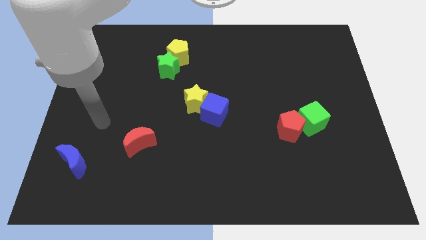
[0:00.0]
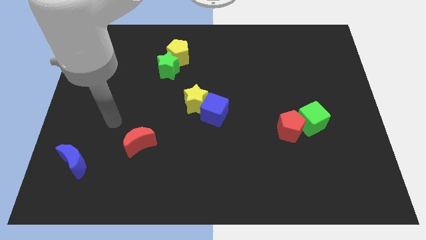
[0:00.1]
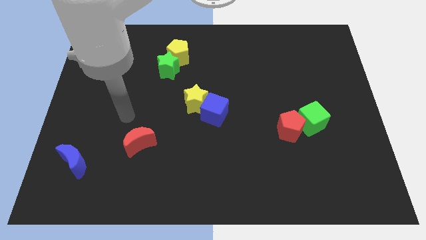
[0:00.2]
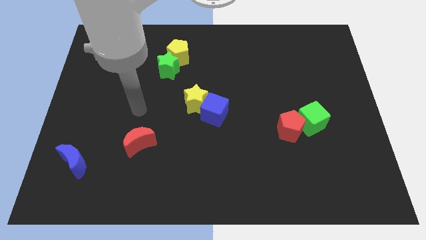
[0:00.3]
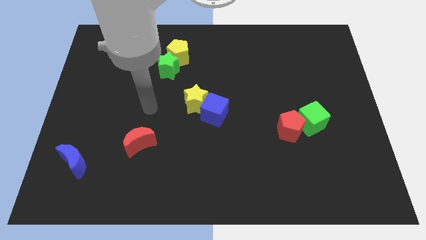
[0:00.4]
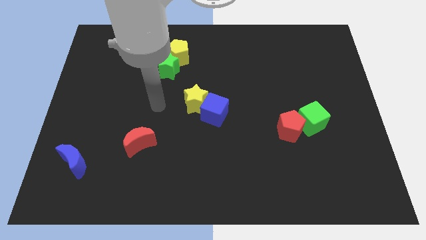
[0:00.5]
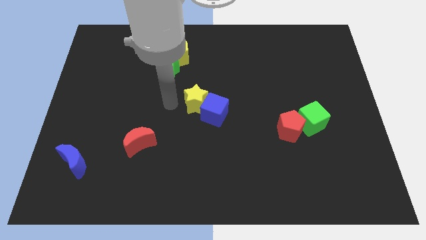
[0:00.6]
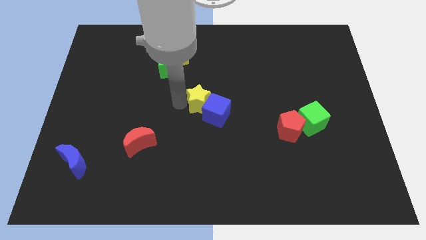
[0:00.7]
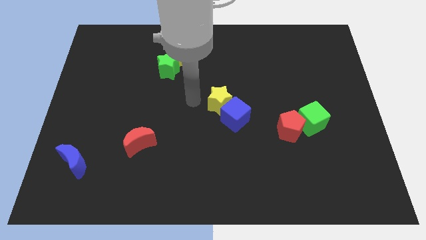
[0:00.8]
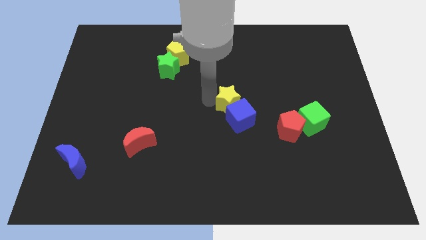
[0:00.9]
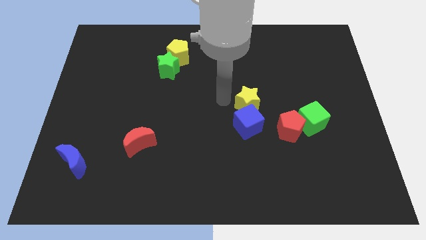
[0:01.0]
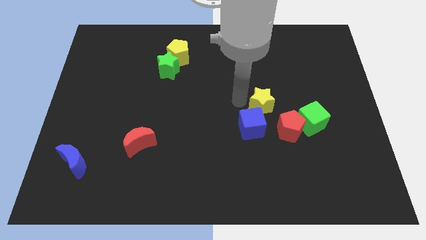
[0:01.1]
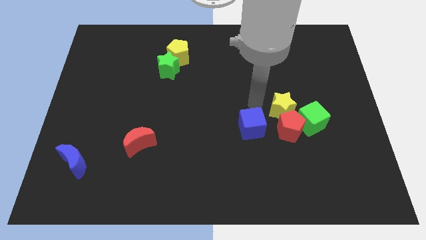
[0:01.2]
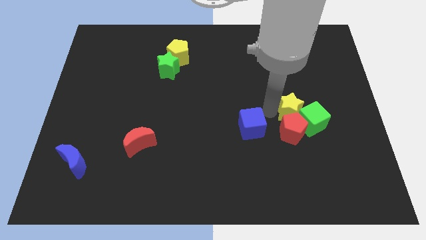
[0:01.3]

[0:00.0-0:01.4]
pull the blue cube apart from the yellow star

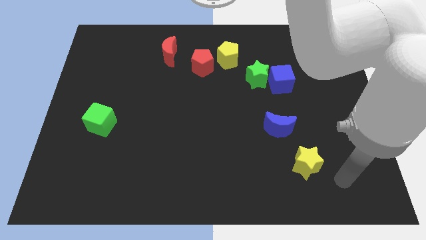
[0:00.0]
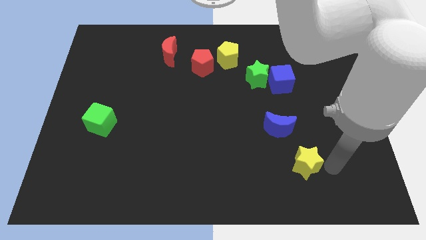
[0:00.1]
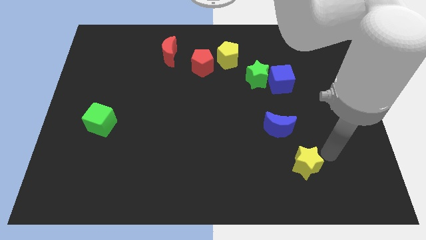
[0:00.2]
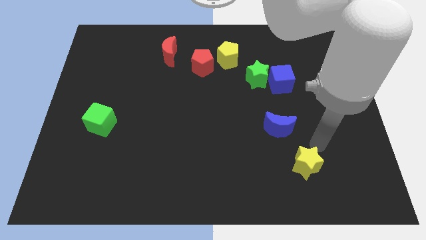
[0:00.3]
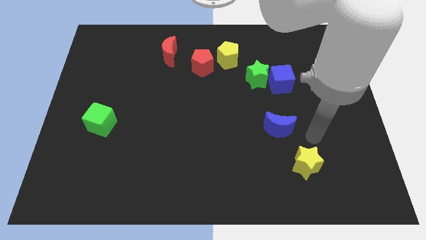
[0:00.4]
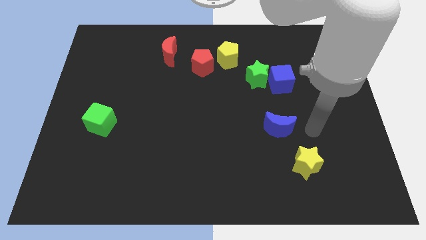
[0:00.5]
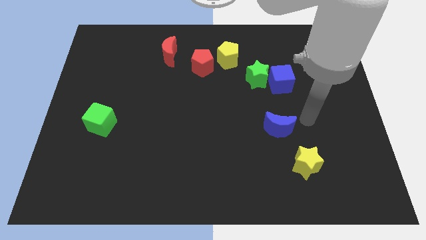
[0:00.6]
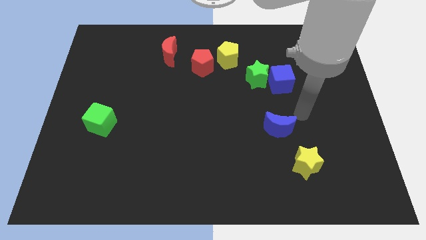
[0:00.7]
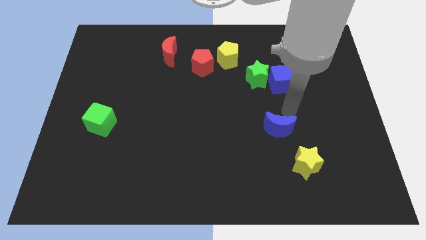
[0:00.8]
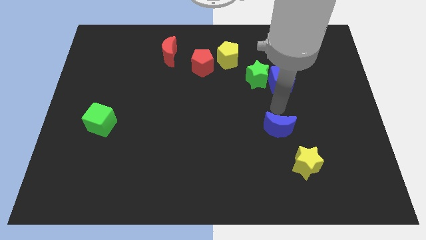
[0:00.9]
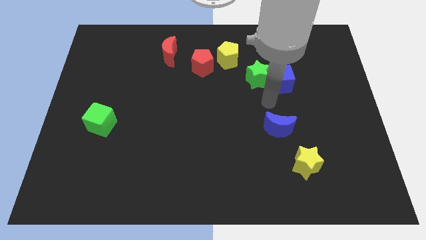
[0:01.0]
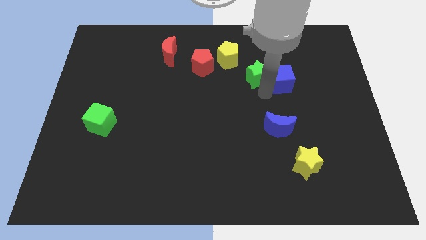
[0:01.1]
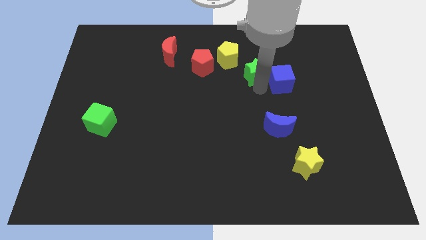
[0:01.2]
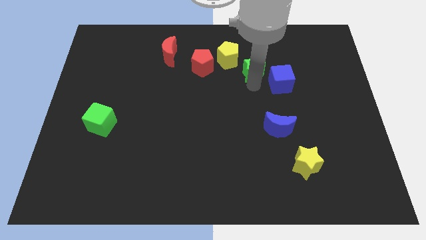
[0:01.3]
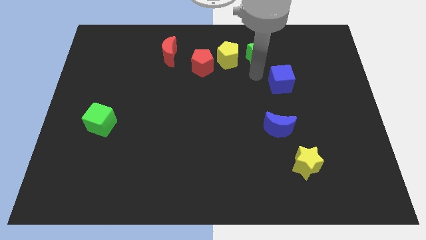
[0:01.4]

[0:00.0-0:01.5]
pull the blue cube apart from the green star

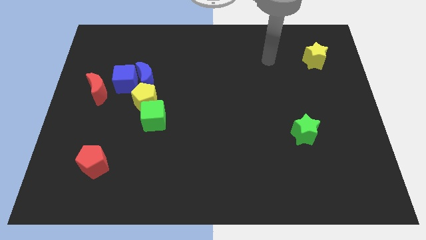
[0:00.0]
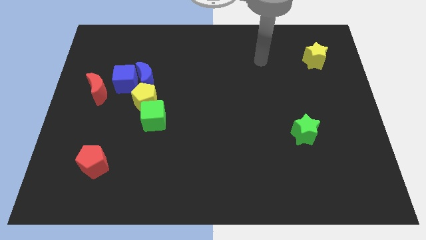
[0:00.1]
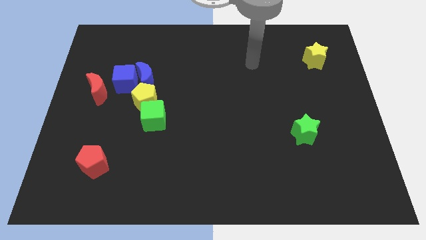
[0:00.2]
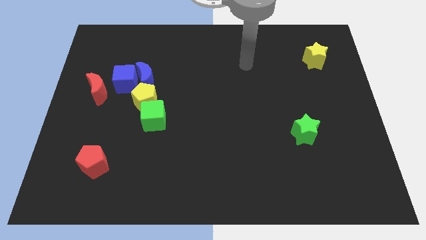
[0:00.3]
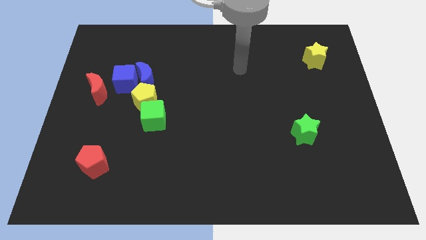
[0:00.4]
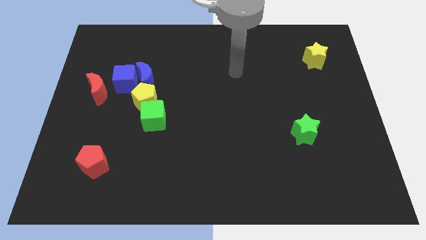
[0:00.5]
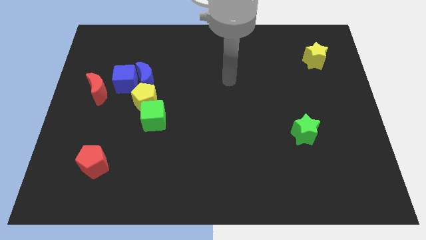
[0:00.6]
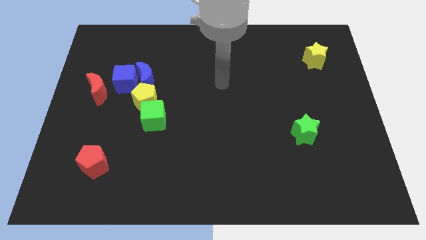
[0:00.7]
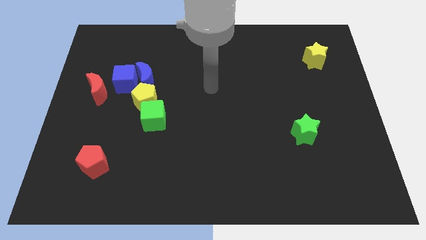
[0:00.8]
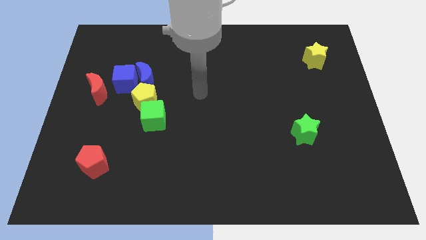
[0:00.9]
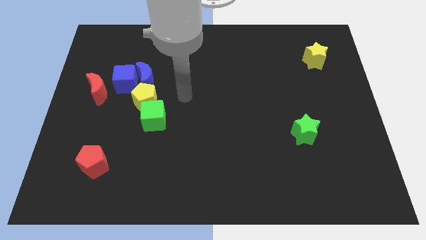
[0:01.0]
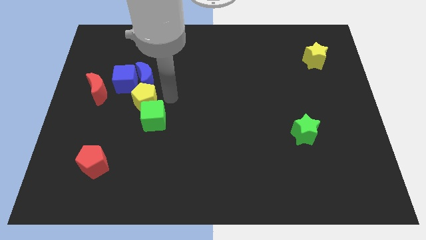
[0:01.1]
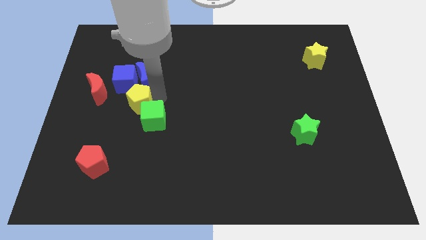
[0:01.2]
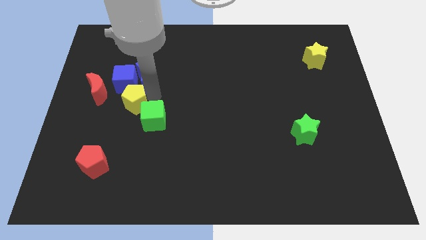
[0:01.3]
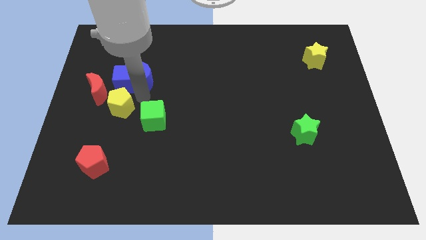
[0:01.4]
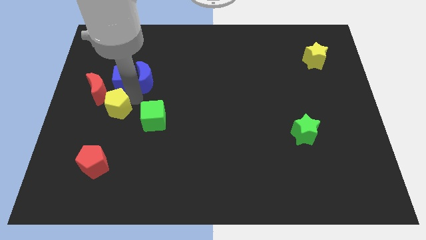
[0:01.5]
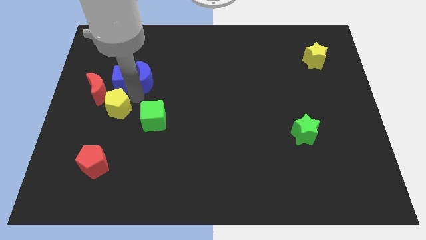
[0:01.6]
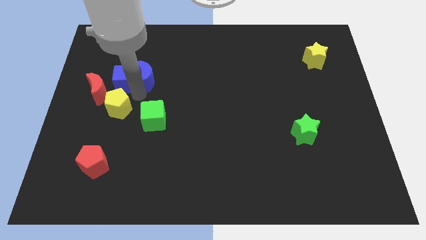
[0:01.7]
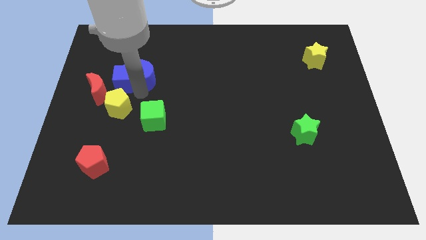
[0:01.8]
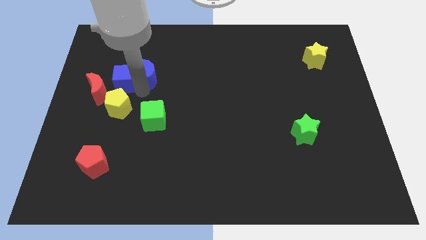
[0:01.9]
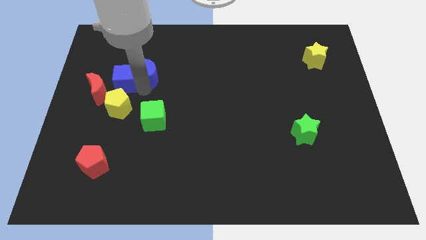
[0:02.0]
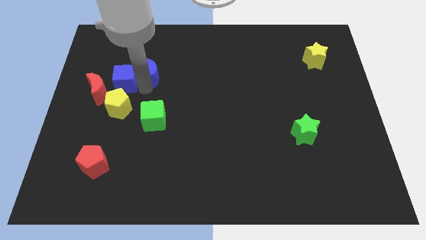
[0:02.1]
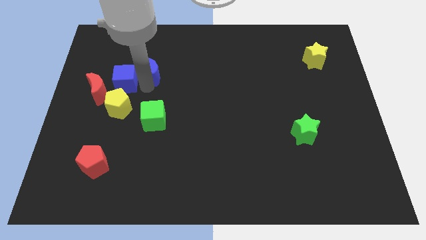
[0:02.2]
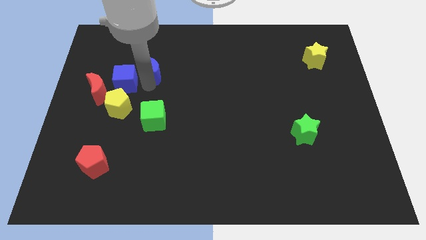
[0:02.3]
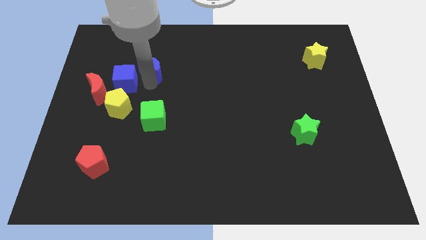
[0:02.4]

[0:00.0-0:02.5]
move the blue moon away from the blue cube and yellow pentagon

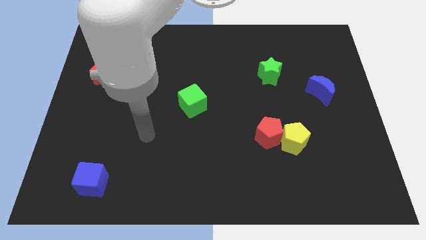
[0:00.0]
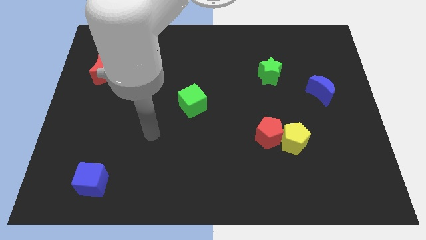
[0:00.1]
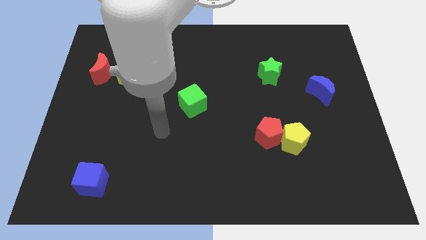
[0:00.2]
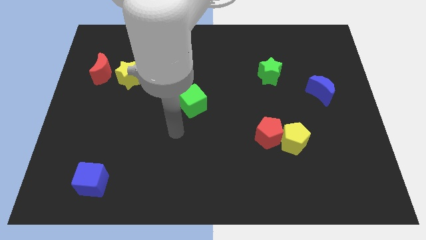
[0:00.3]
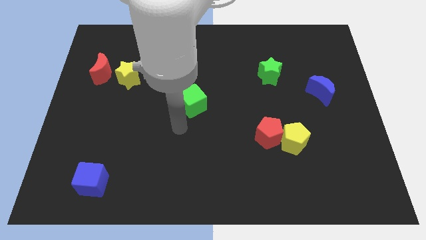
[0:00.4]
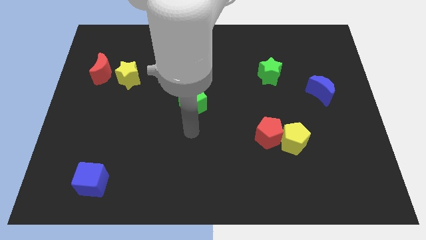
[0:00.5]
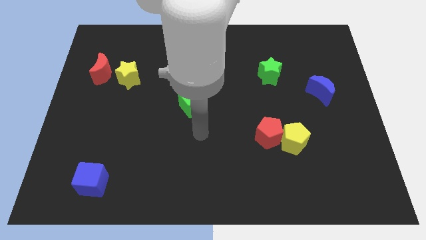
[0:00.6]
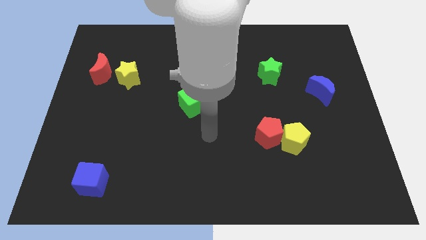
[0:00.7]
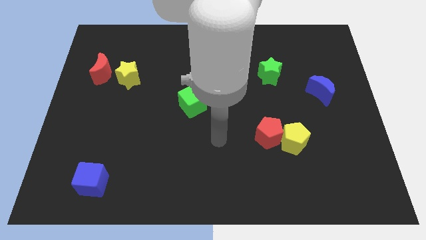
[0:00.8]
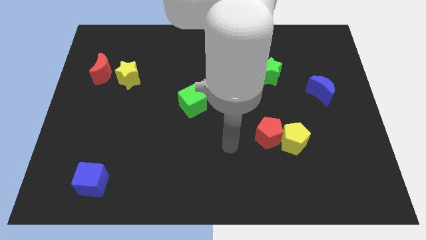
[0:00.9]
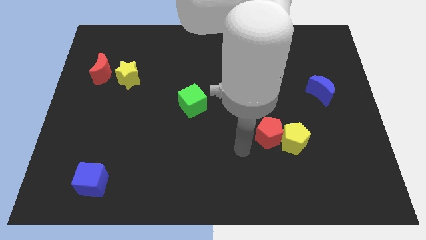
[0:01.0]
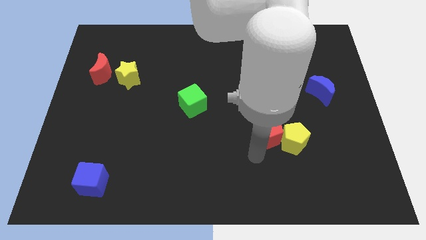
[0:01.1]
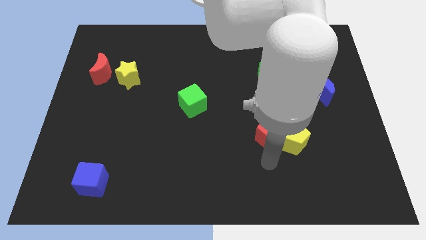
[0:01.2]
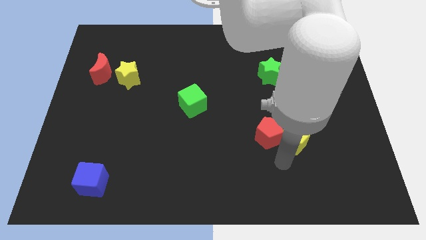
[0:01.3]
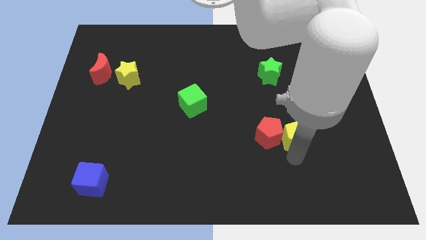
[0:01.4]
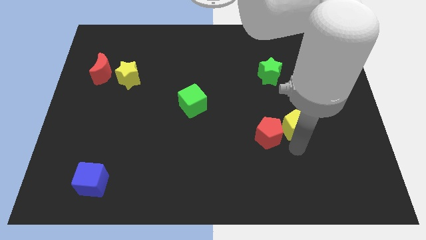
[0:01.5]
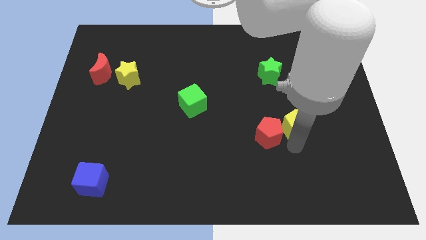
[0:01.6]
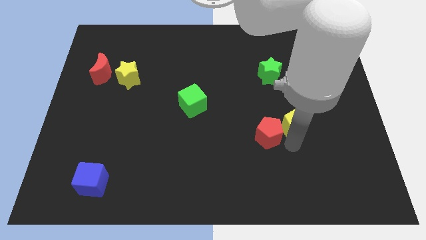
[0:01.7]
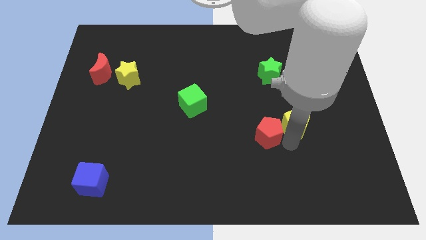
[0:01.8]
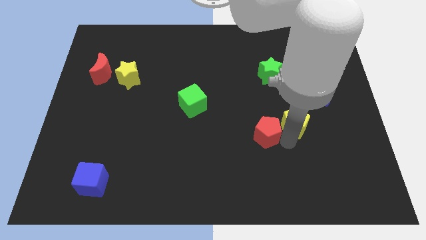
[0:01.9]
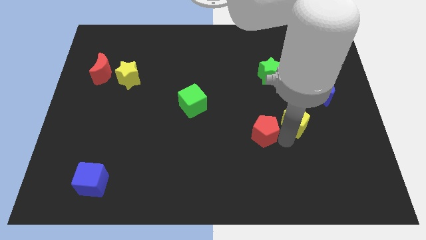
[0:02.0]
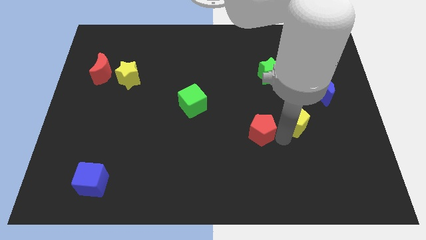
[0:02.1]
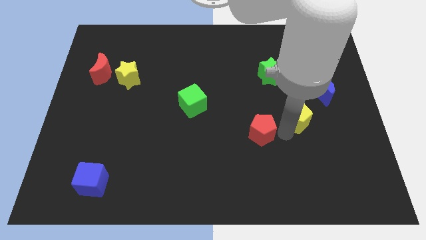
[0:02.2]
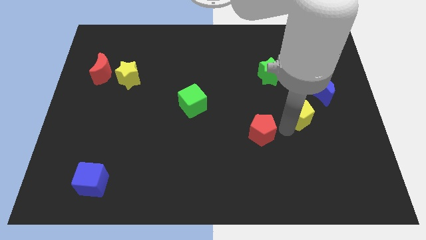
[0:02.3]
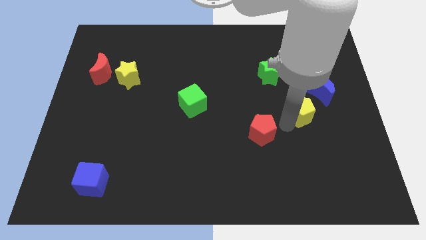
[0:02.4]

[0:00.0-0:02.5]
pull the red pentagon apart from the yellow pentagon

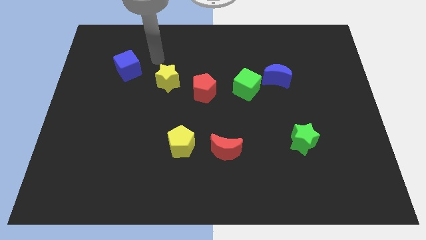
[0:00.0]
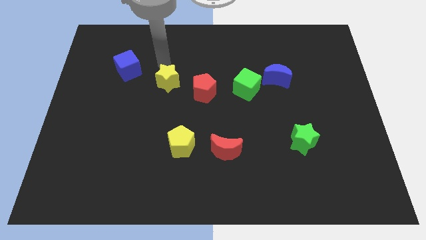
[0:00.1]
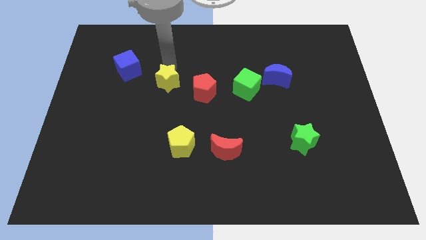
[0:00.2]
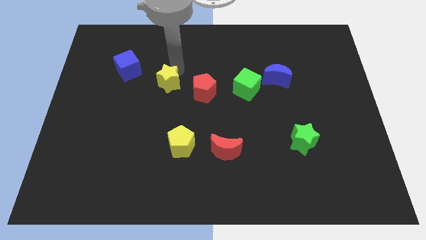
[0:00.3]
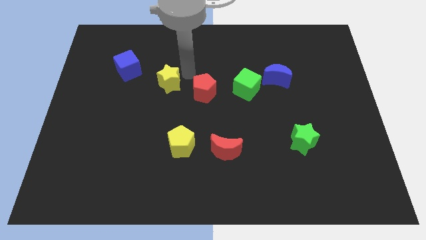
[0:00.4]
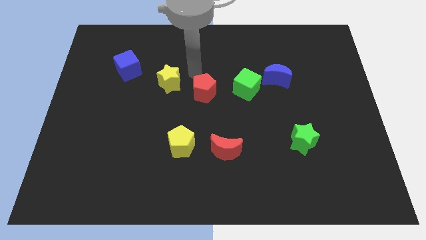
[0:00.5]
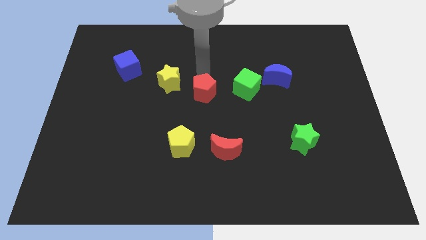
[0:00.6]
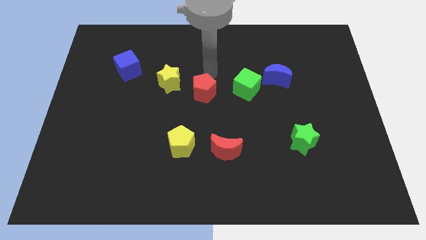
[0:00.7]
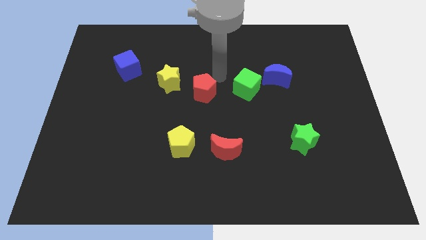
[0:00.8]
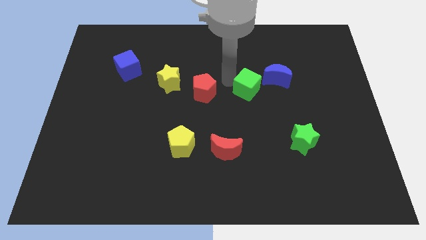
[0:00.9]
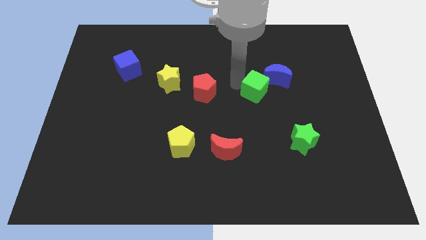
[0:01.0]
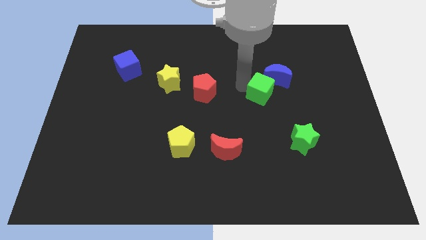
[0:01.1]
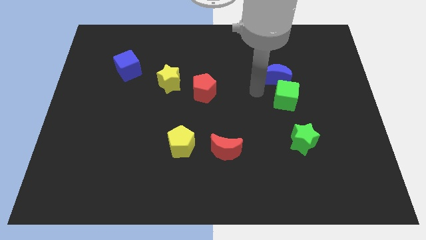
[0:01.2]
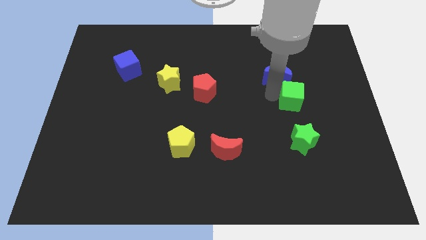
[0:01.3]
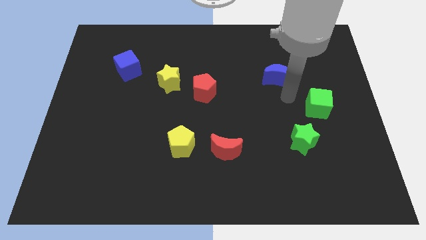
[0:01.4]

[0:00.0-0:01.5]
pull the blue moon apart from the green cube
